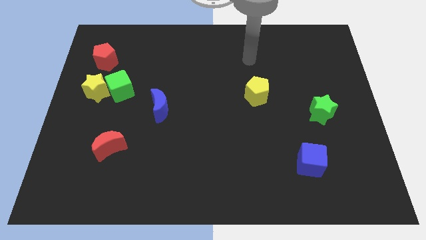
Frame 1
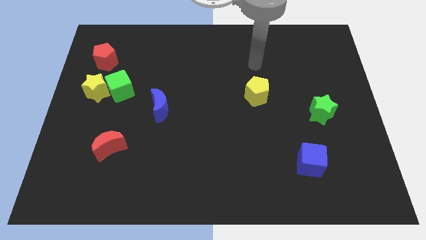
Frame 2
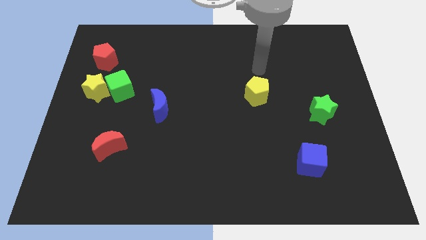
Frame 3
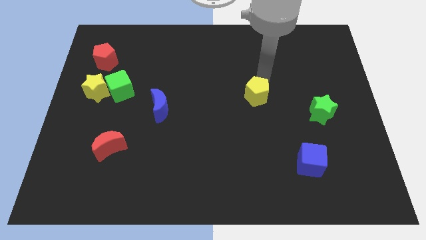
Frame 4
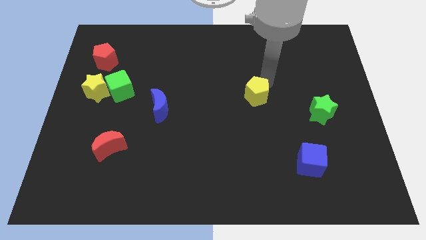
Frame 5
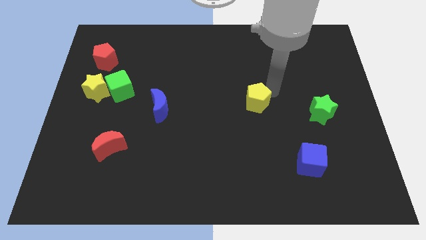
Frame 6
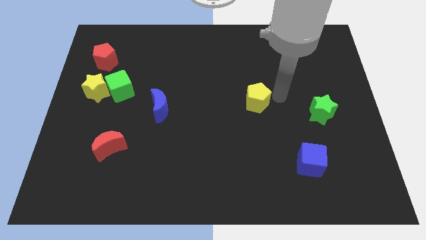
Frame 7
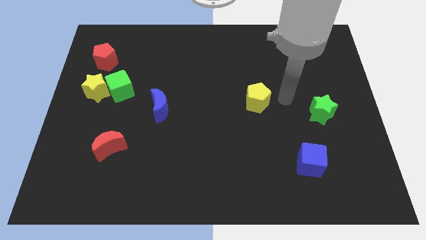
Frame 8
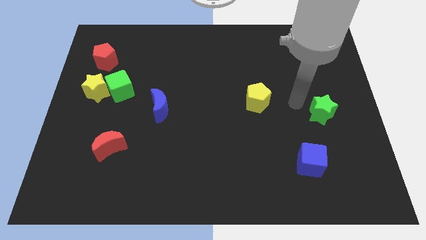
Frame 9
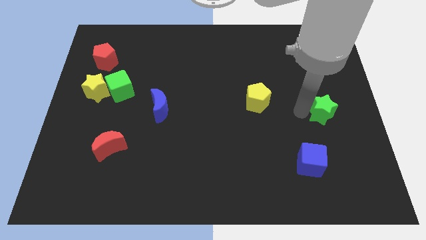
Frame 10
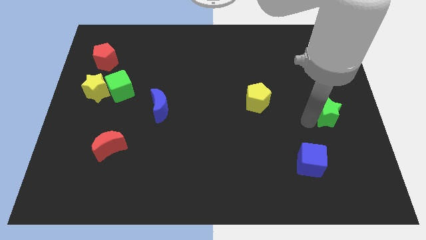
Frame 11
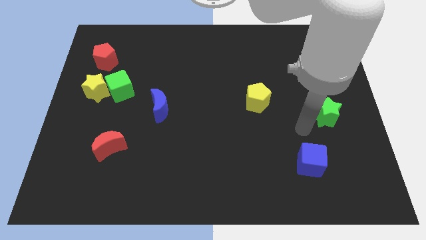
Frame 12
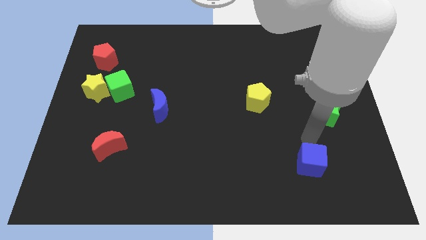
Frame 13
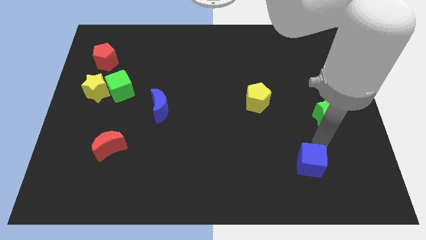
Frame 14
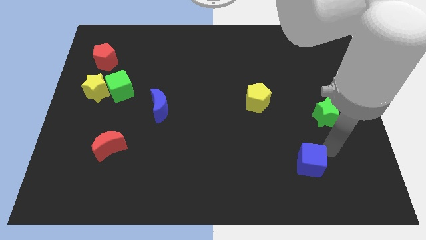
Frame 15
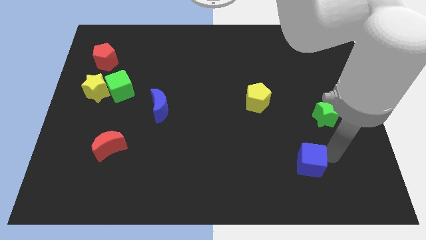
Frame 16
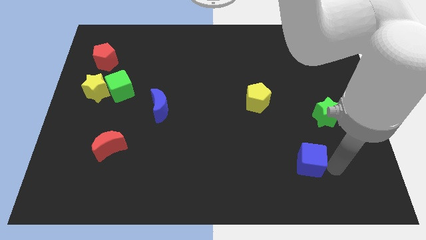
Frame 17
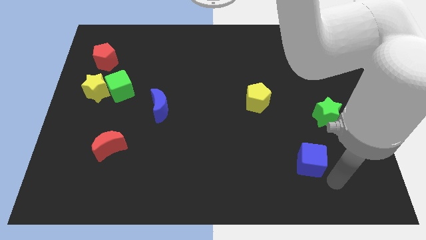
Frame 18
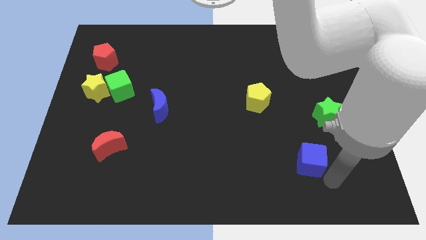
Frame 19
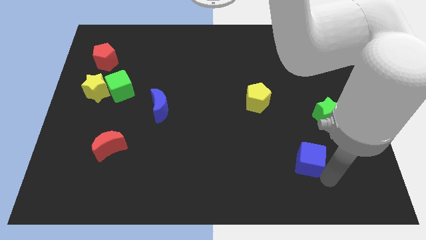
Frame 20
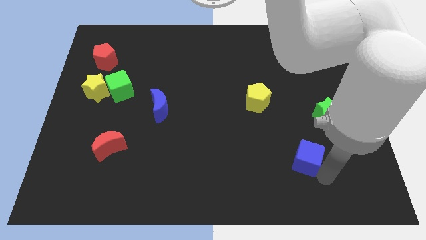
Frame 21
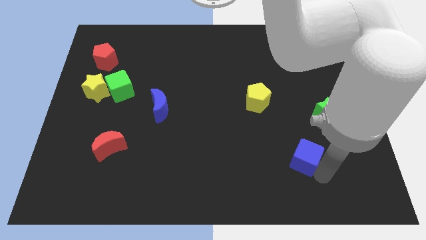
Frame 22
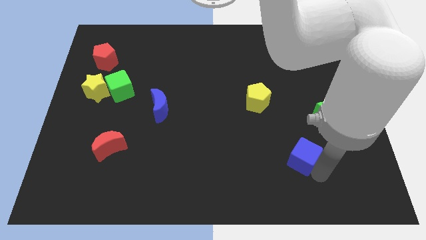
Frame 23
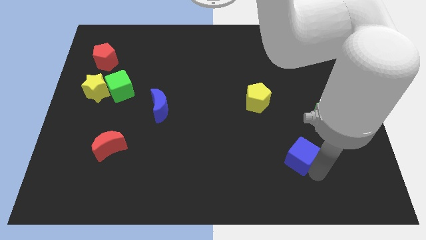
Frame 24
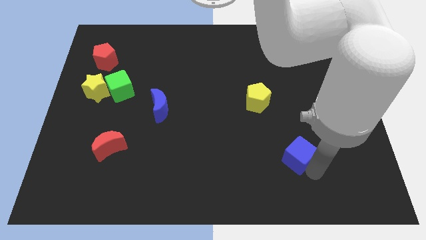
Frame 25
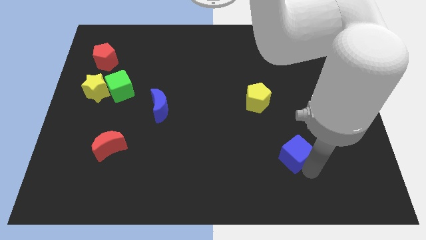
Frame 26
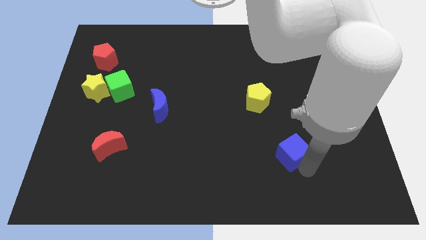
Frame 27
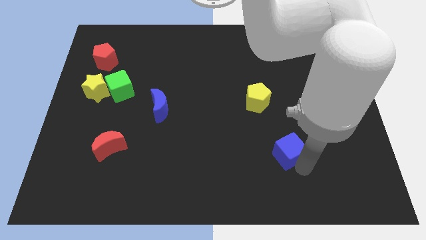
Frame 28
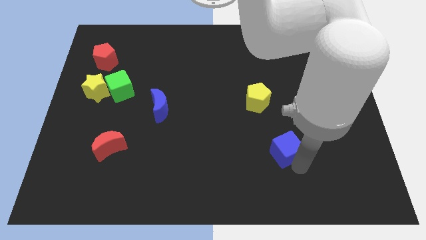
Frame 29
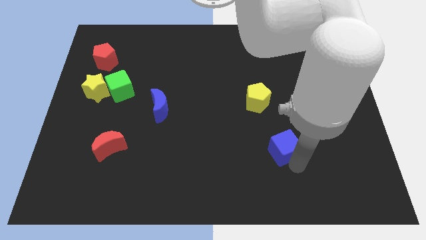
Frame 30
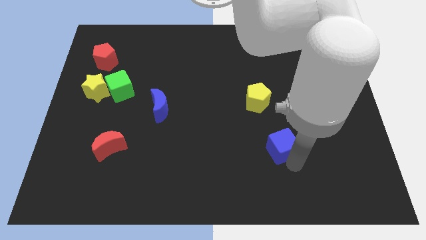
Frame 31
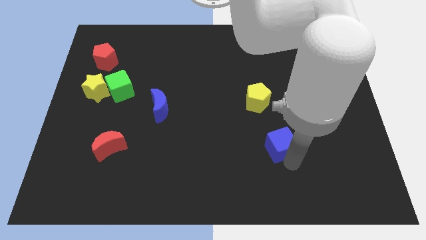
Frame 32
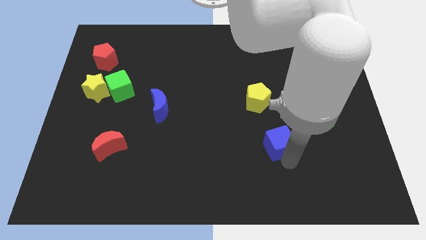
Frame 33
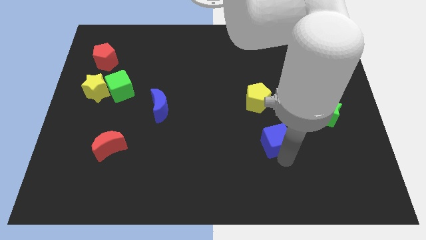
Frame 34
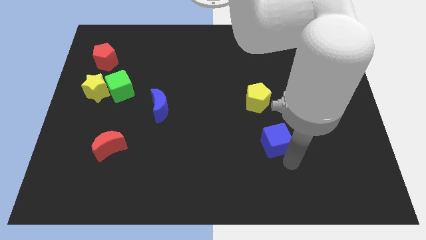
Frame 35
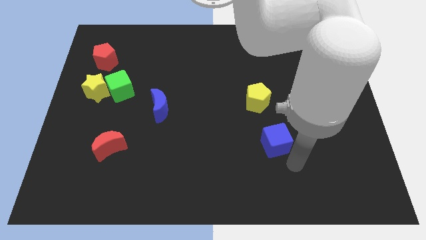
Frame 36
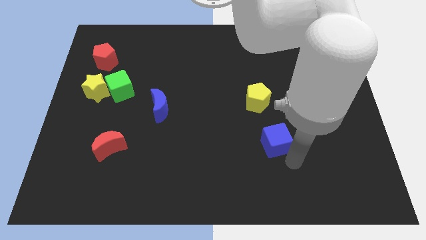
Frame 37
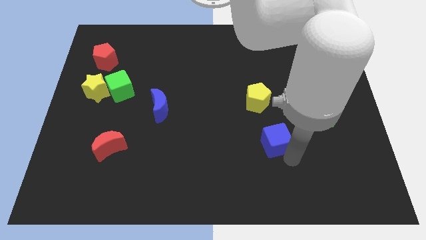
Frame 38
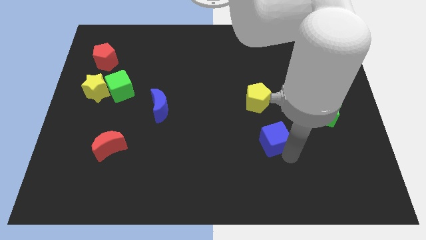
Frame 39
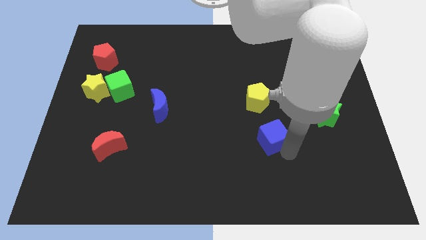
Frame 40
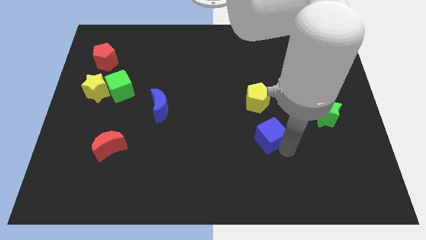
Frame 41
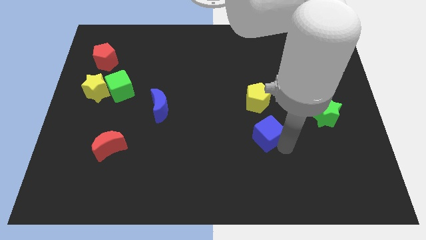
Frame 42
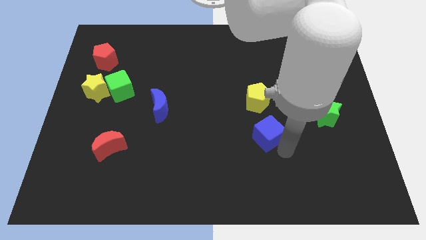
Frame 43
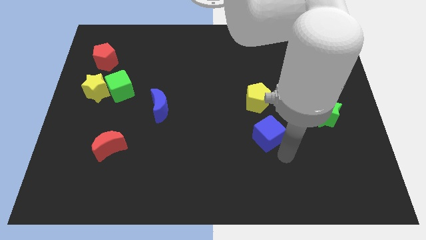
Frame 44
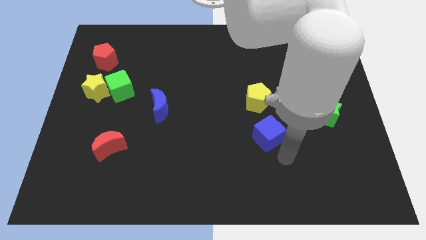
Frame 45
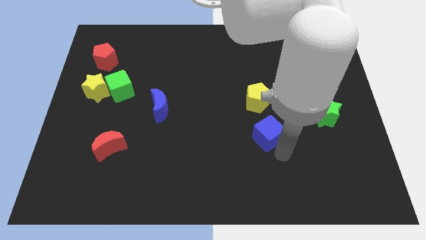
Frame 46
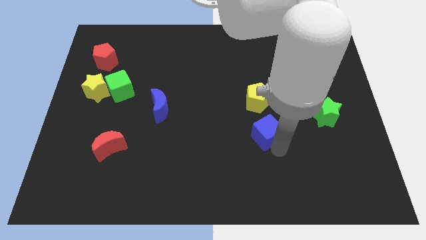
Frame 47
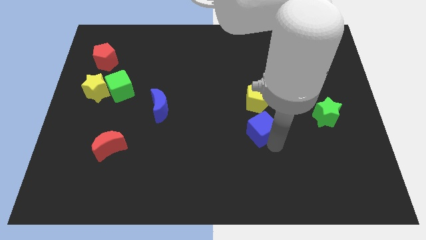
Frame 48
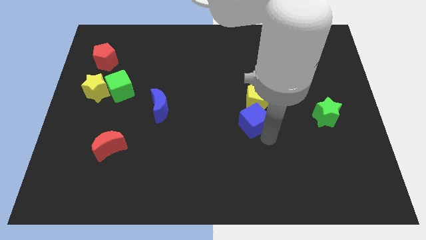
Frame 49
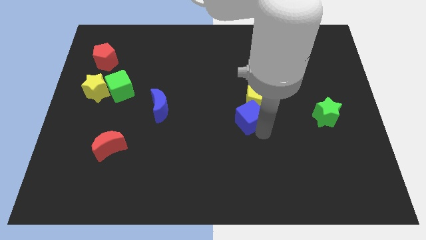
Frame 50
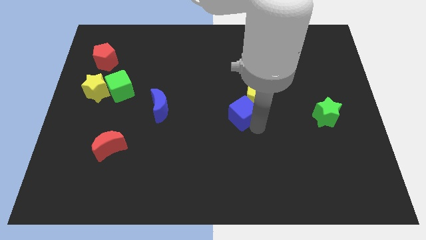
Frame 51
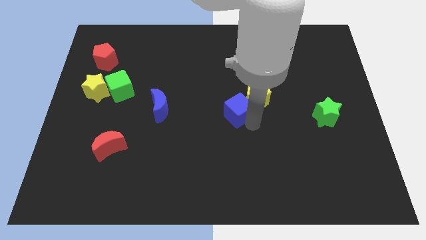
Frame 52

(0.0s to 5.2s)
push the blue cube diagonally up and to the left

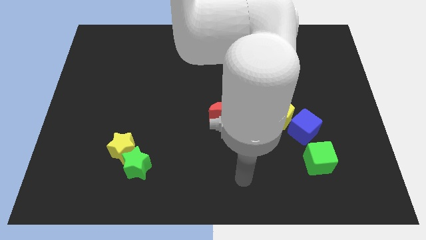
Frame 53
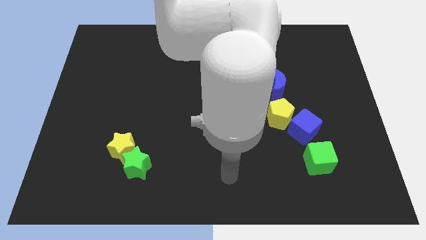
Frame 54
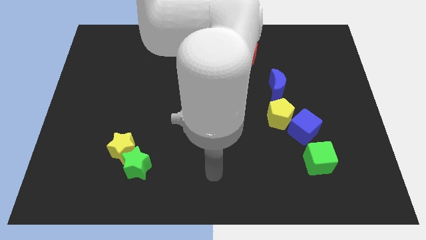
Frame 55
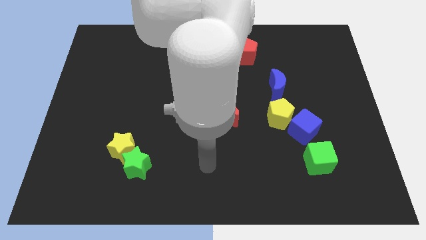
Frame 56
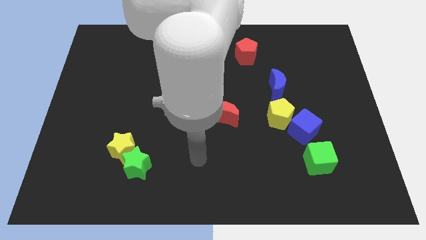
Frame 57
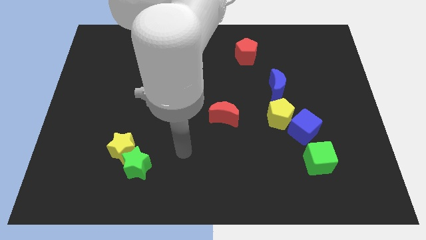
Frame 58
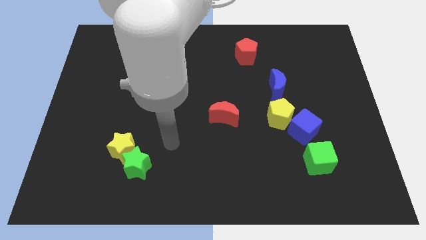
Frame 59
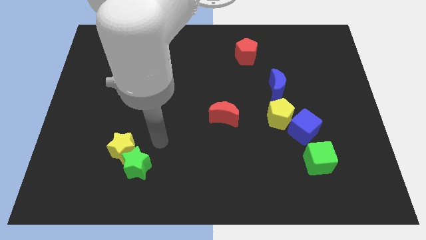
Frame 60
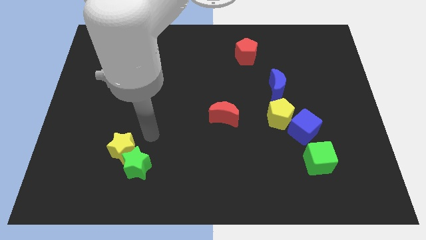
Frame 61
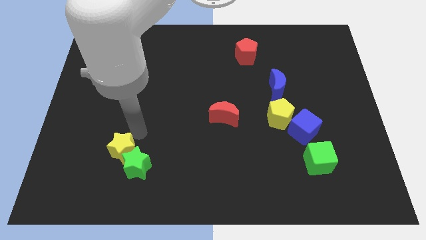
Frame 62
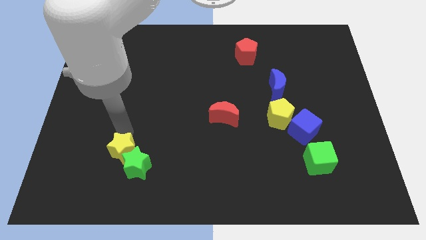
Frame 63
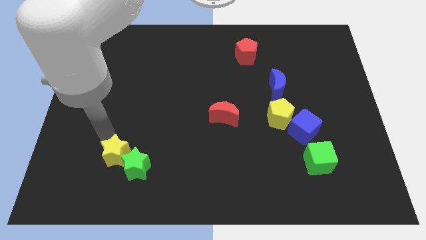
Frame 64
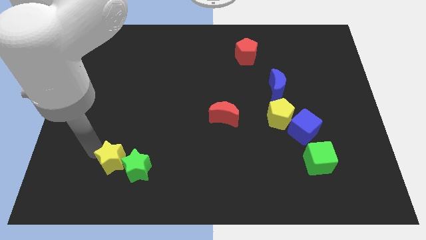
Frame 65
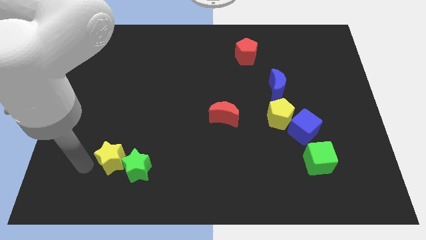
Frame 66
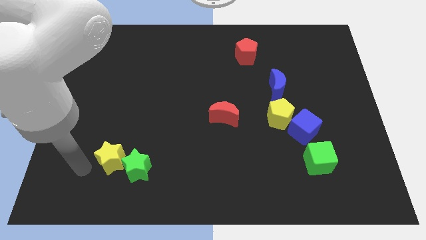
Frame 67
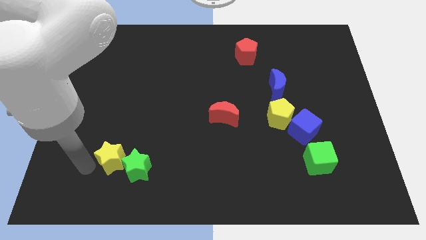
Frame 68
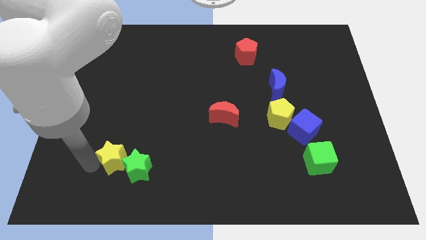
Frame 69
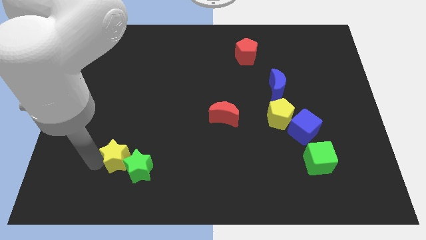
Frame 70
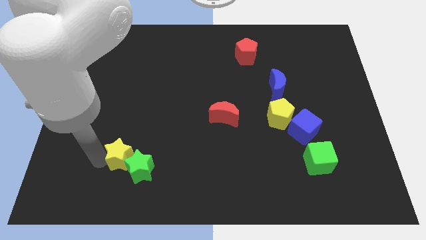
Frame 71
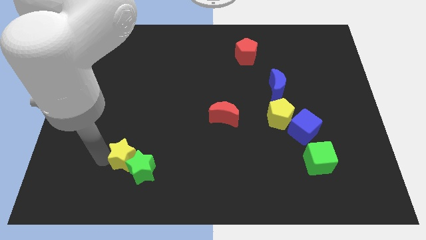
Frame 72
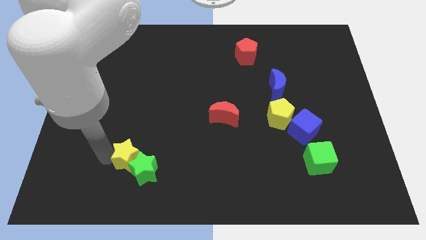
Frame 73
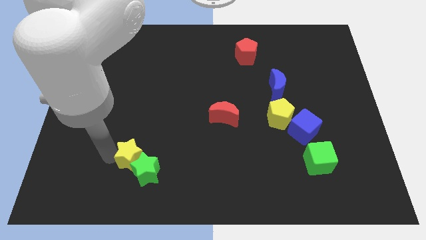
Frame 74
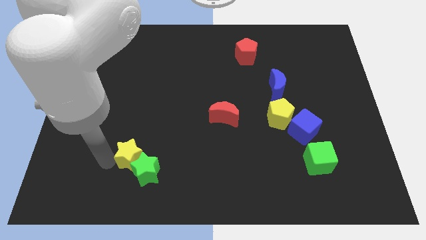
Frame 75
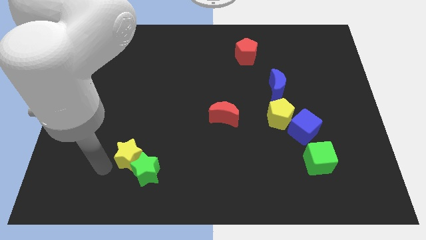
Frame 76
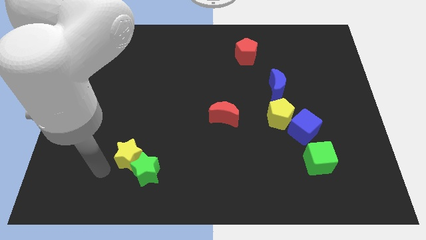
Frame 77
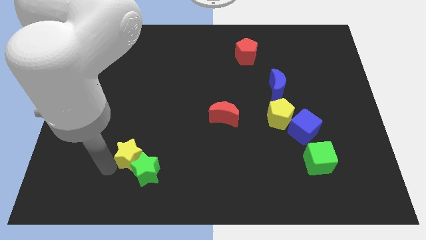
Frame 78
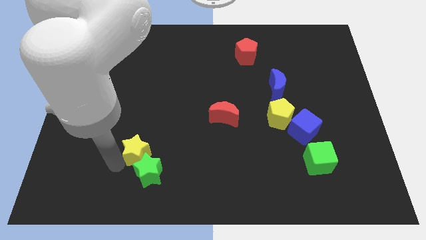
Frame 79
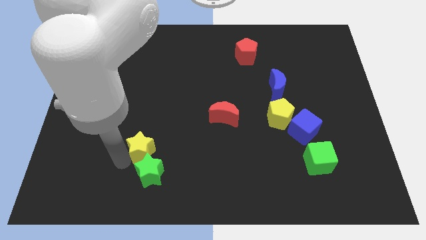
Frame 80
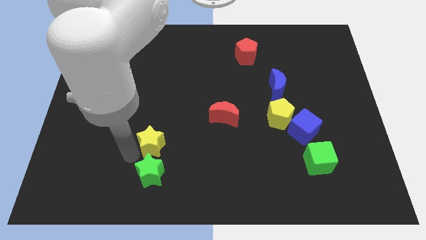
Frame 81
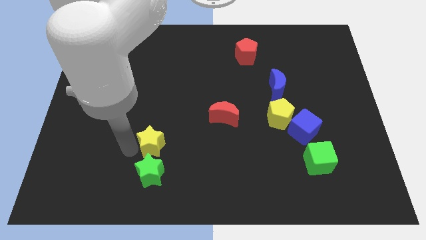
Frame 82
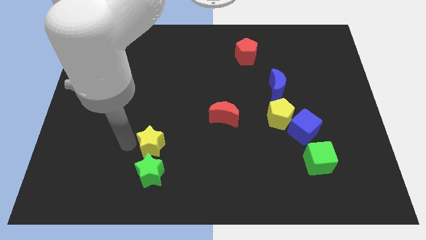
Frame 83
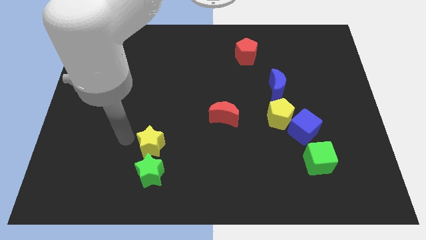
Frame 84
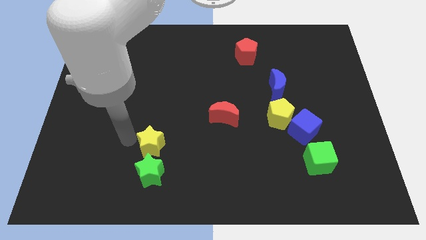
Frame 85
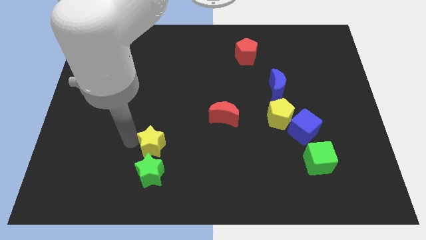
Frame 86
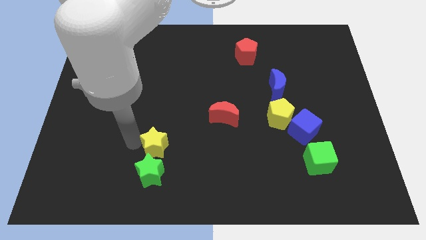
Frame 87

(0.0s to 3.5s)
move the yellow star somewhat right
